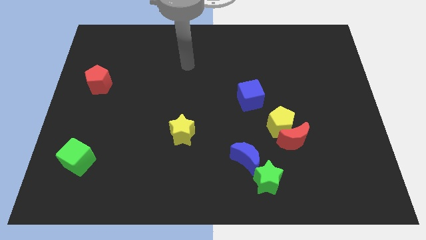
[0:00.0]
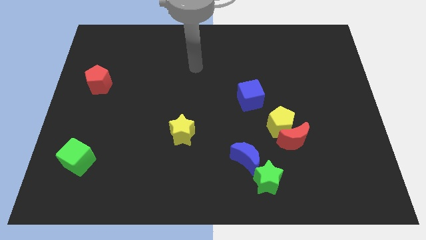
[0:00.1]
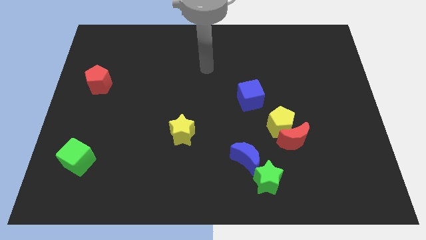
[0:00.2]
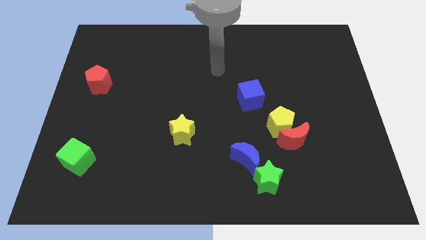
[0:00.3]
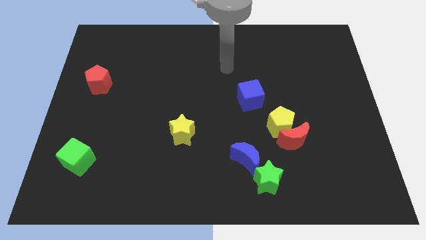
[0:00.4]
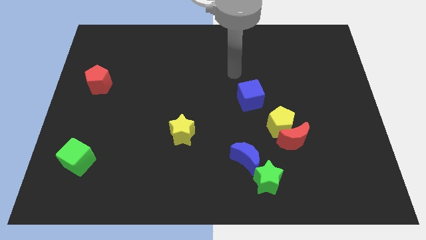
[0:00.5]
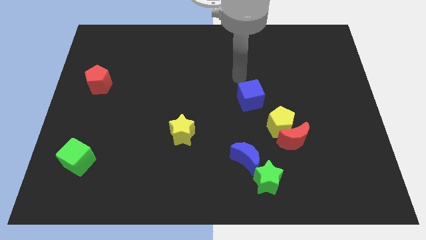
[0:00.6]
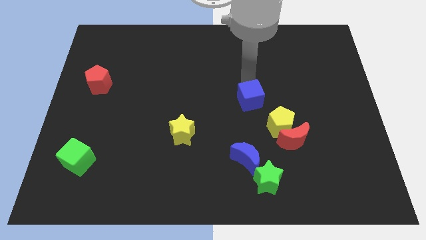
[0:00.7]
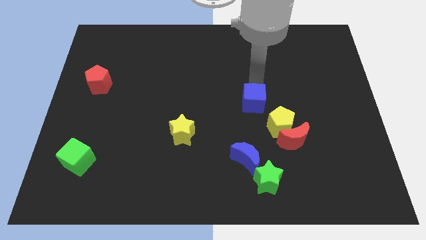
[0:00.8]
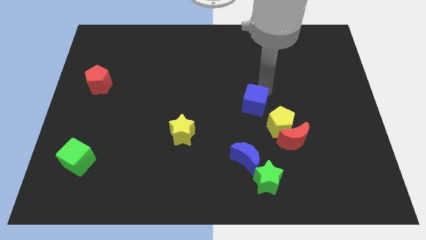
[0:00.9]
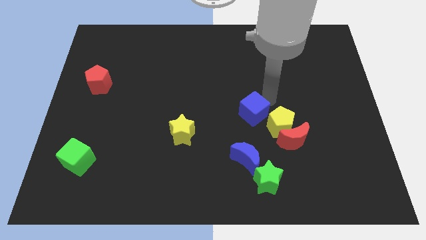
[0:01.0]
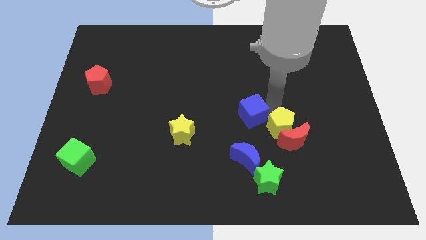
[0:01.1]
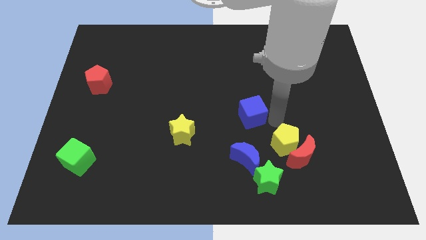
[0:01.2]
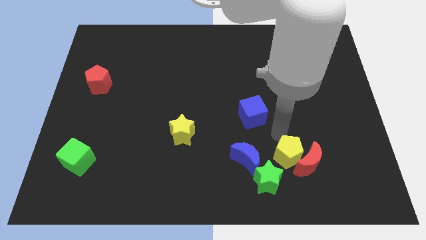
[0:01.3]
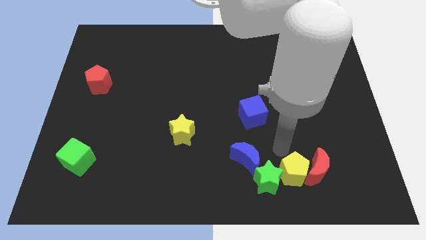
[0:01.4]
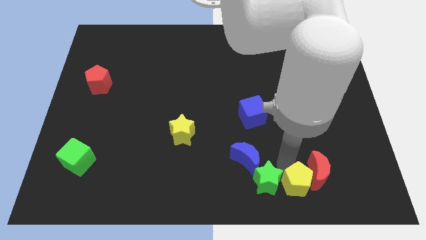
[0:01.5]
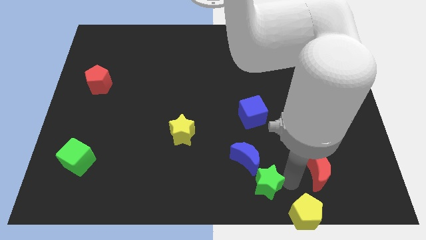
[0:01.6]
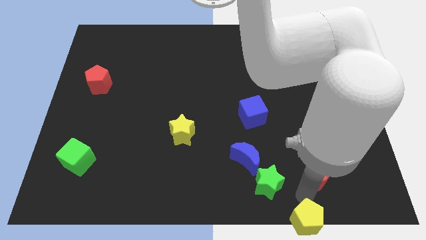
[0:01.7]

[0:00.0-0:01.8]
pull the red moon apart from the yellow pentagon

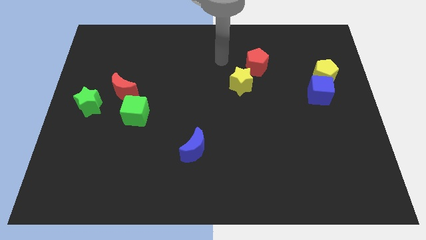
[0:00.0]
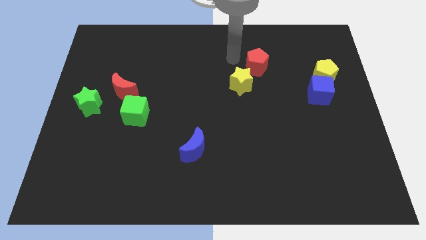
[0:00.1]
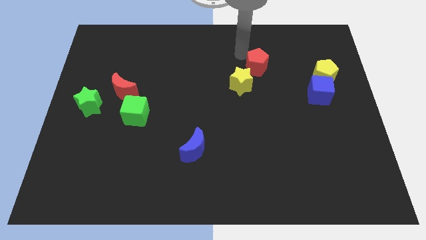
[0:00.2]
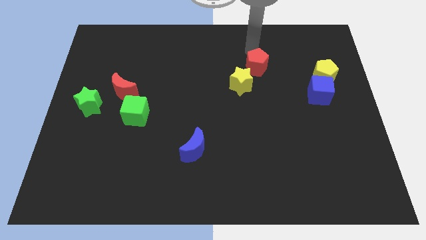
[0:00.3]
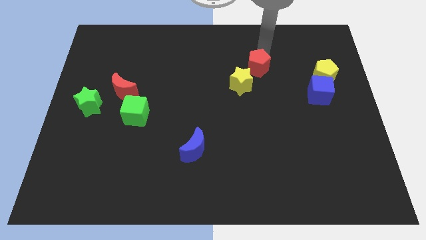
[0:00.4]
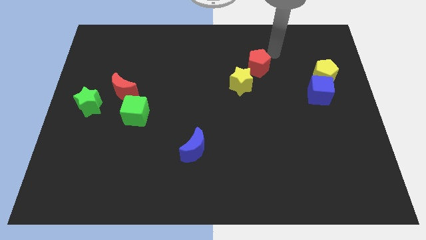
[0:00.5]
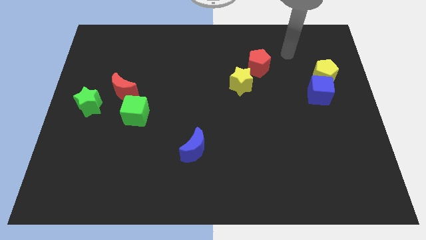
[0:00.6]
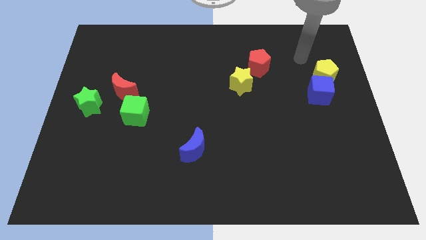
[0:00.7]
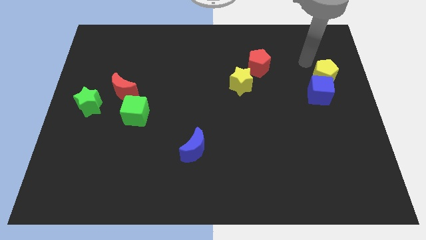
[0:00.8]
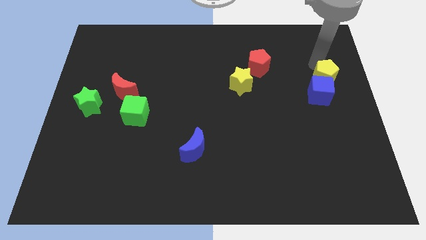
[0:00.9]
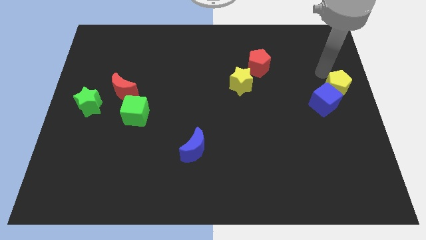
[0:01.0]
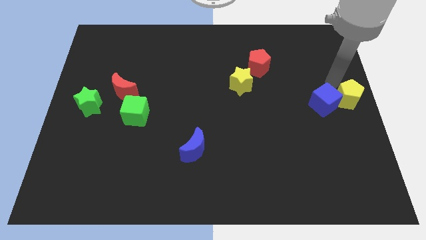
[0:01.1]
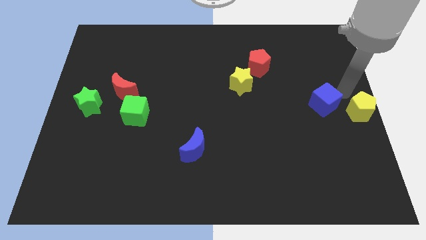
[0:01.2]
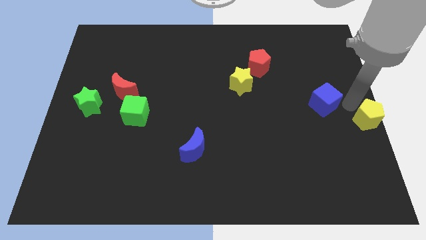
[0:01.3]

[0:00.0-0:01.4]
move the blue cube away from the yellow pentagon

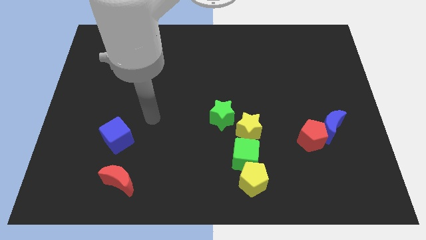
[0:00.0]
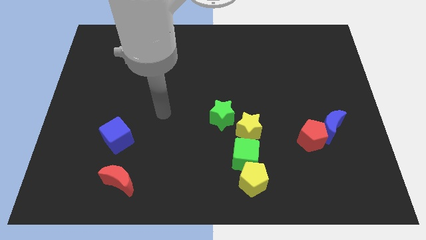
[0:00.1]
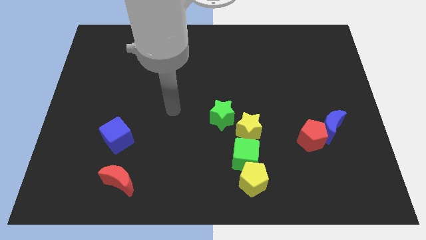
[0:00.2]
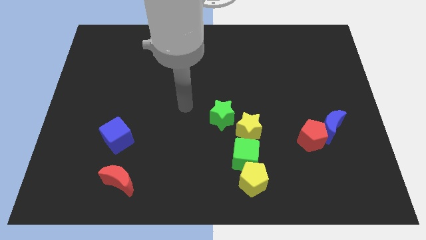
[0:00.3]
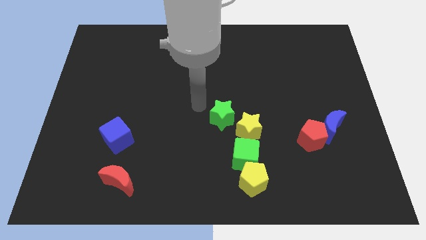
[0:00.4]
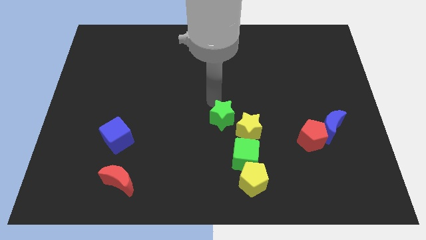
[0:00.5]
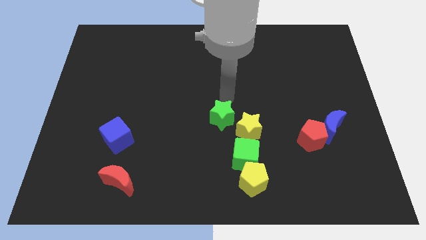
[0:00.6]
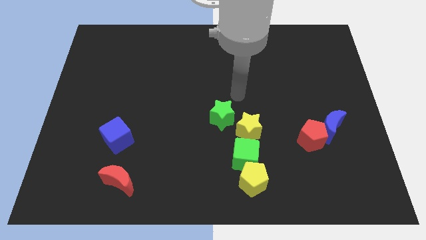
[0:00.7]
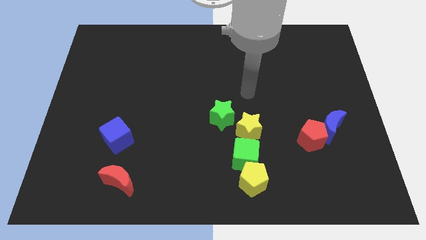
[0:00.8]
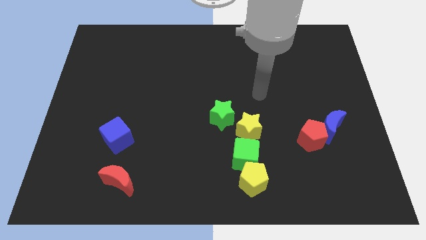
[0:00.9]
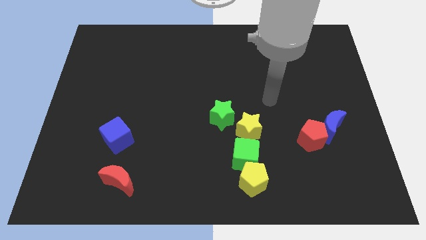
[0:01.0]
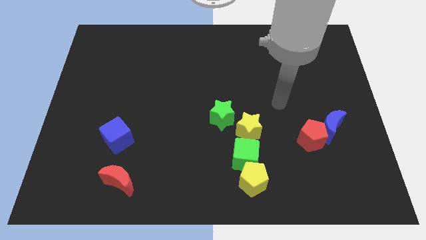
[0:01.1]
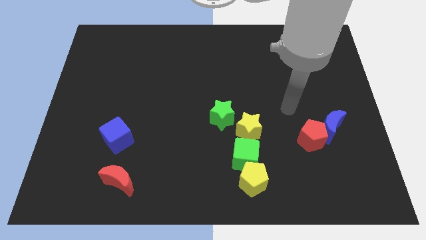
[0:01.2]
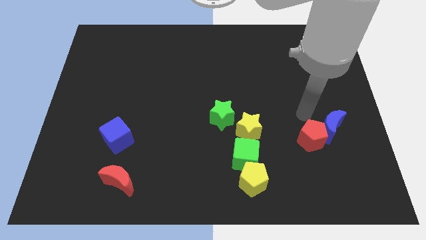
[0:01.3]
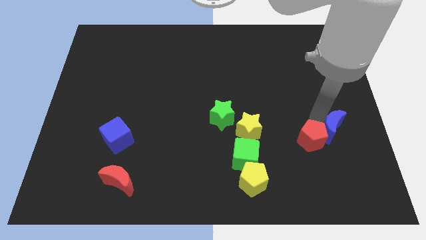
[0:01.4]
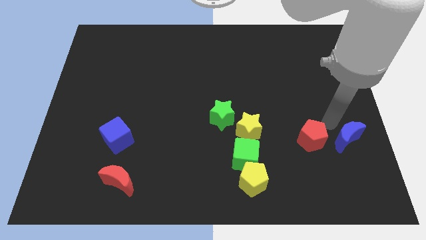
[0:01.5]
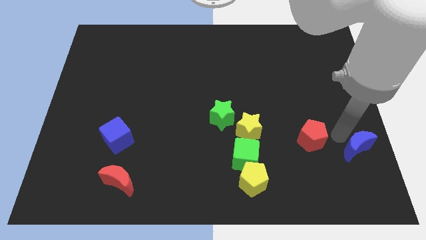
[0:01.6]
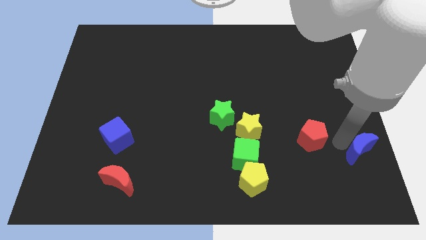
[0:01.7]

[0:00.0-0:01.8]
separate the red pentagon from the blue moon

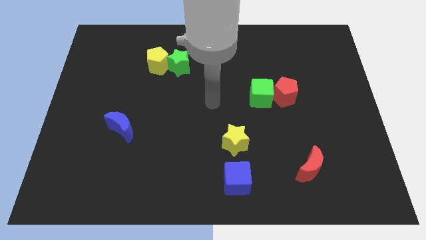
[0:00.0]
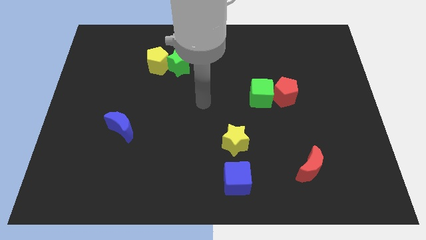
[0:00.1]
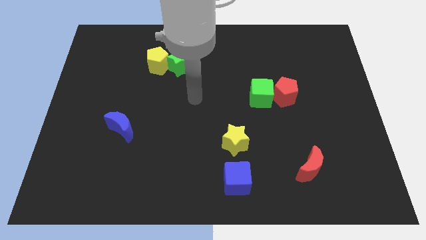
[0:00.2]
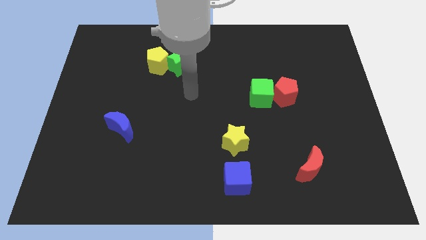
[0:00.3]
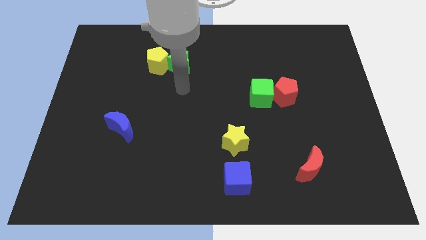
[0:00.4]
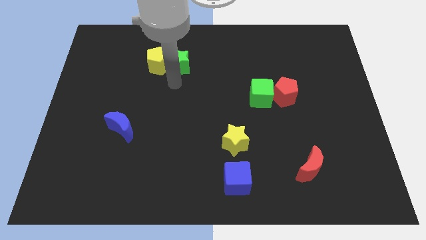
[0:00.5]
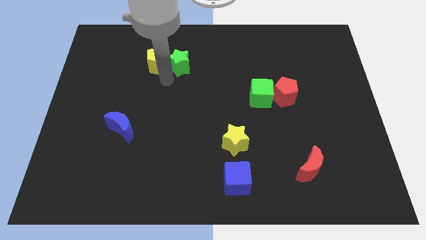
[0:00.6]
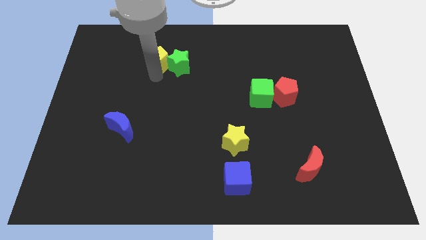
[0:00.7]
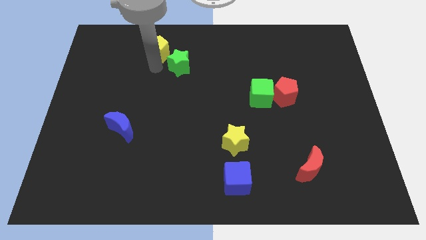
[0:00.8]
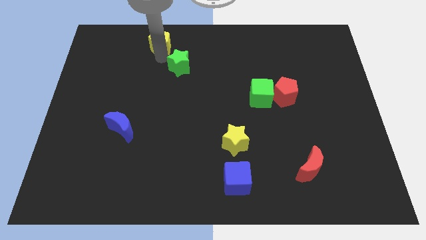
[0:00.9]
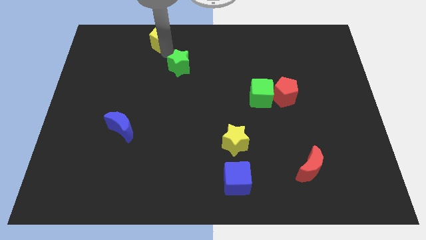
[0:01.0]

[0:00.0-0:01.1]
pull the green star apart from the yellow pentagon

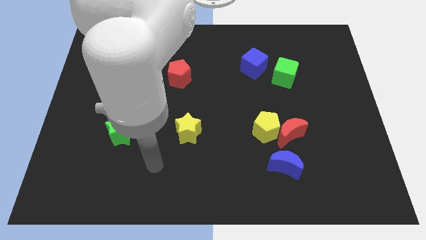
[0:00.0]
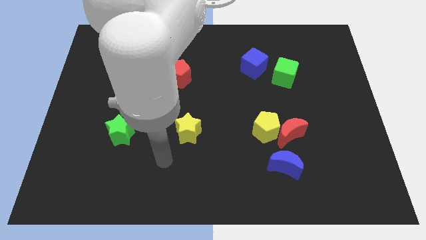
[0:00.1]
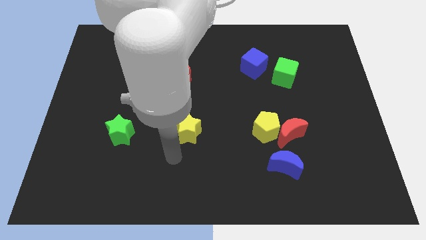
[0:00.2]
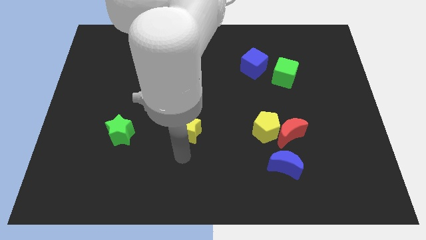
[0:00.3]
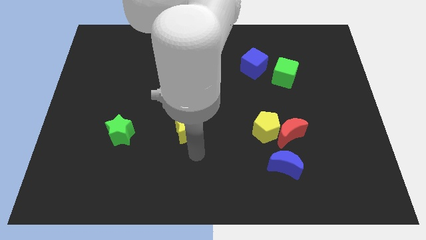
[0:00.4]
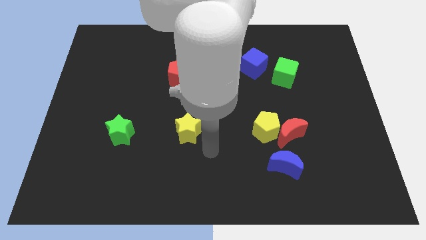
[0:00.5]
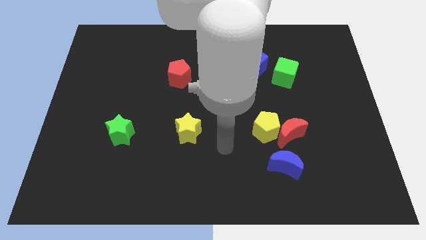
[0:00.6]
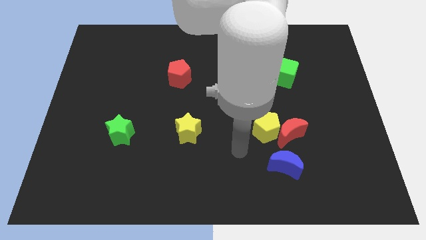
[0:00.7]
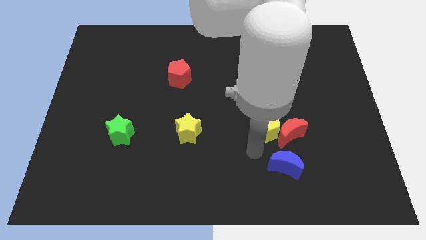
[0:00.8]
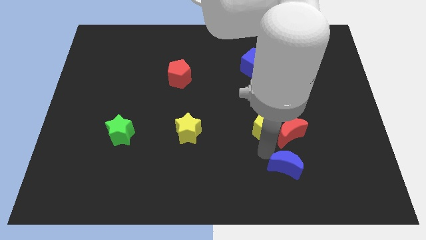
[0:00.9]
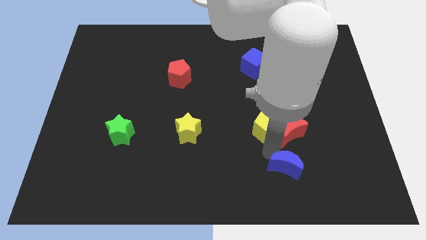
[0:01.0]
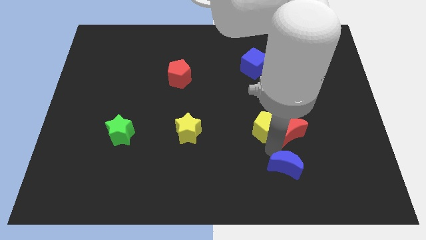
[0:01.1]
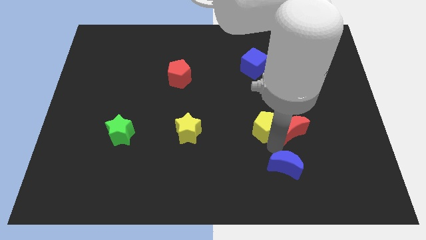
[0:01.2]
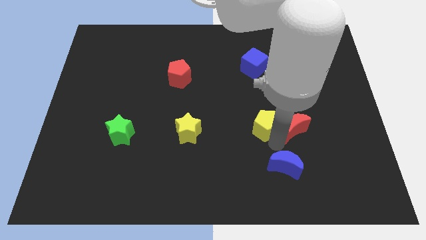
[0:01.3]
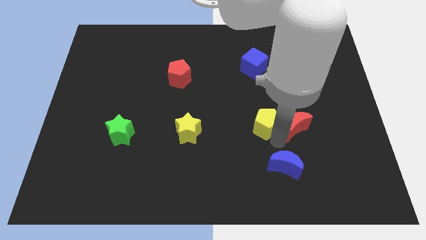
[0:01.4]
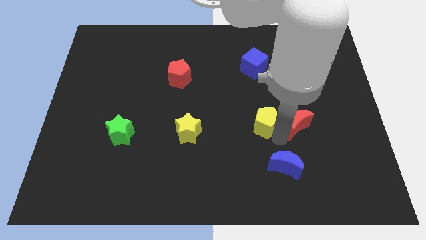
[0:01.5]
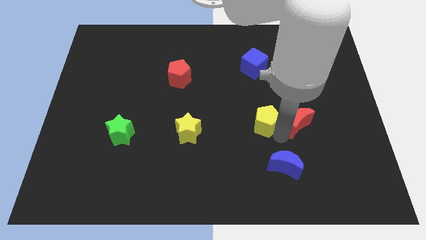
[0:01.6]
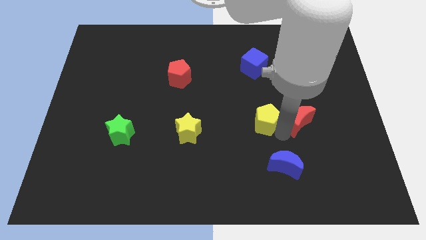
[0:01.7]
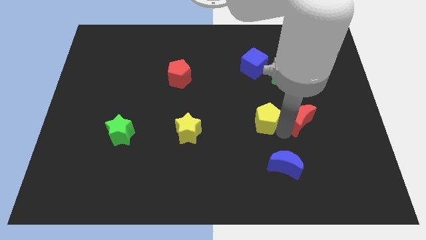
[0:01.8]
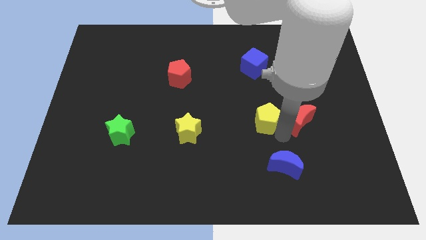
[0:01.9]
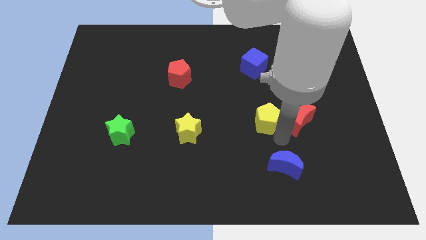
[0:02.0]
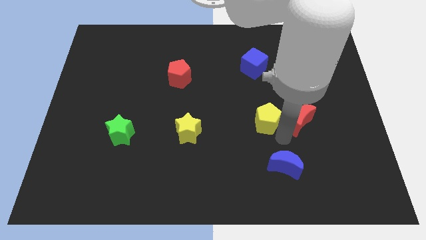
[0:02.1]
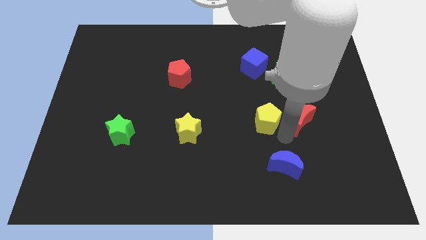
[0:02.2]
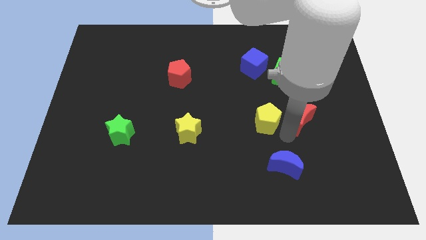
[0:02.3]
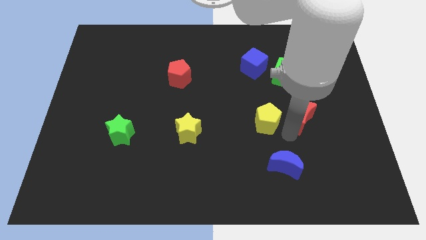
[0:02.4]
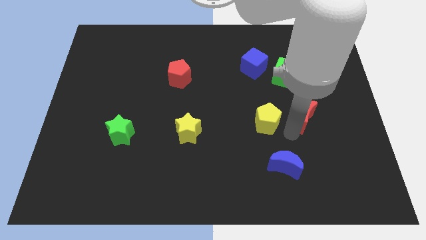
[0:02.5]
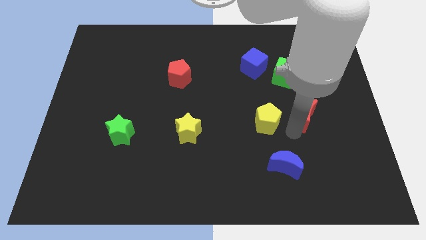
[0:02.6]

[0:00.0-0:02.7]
move the red moon away from the yellow pentagon and blue moon

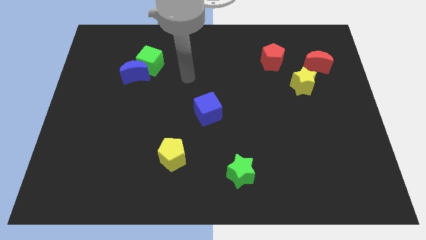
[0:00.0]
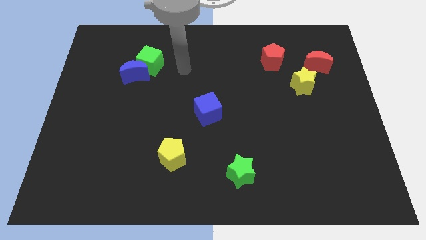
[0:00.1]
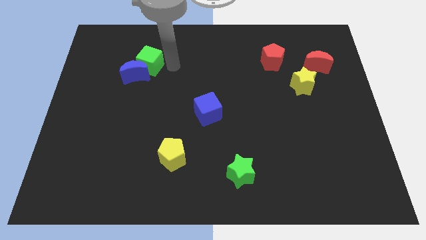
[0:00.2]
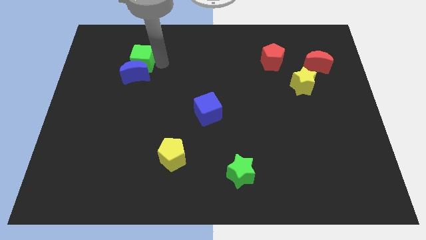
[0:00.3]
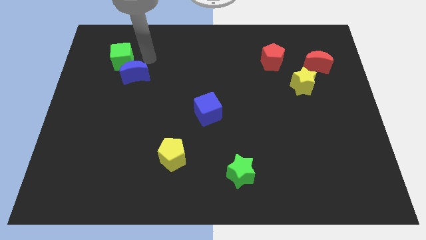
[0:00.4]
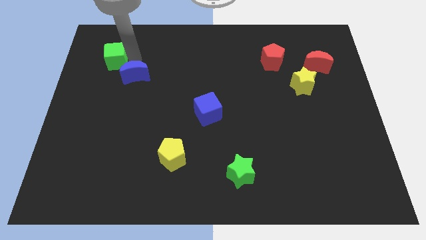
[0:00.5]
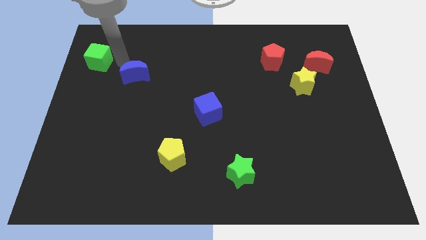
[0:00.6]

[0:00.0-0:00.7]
move the blue moon away from the green cube
